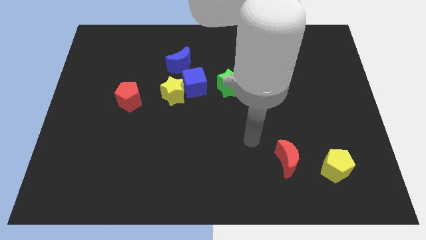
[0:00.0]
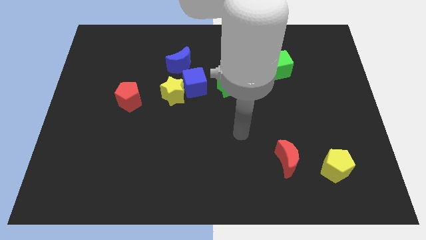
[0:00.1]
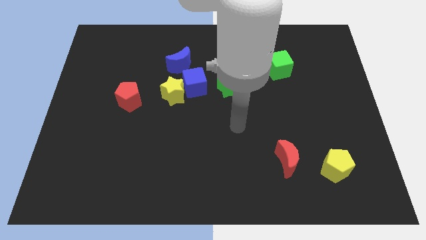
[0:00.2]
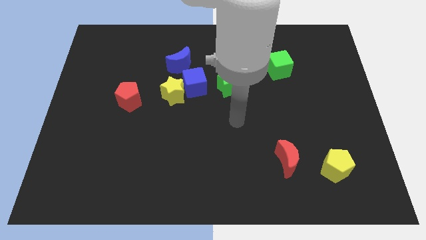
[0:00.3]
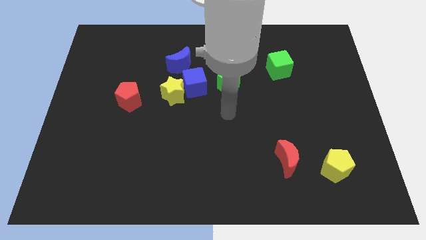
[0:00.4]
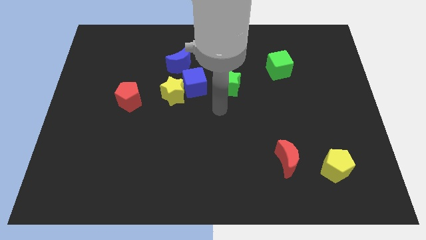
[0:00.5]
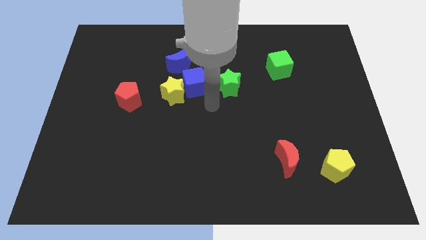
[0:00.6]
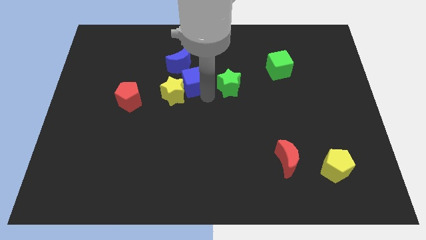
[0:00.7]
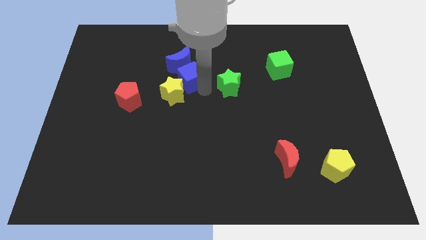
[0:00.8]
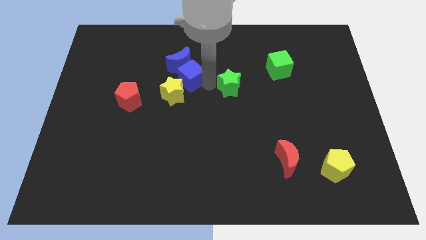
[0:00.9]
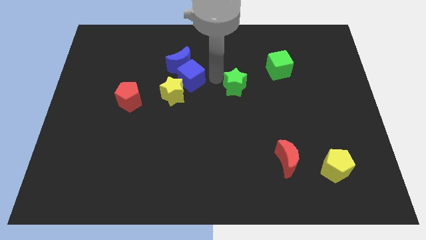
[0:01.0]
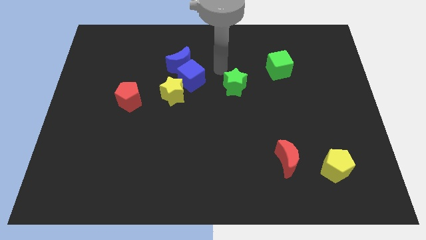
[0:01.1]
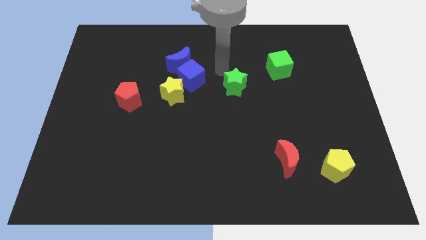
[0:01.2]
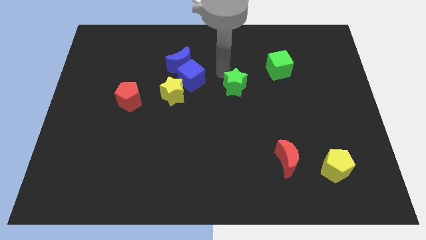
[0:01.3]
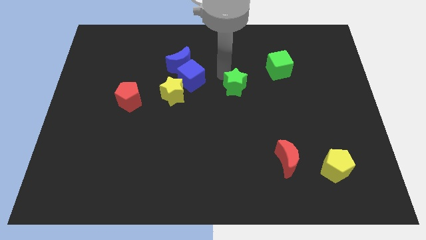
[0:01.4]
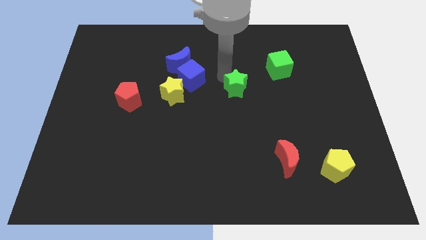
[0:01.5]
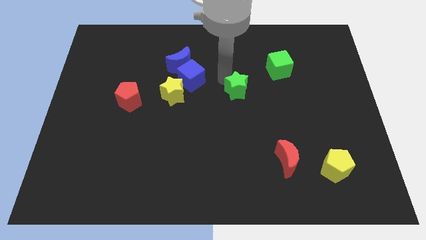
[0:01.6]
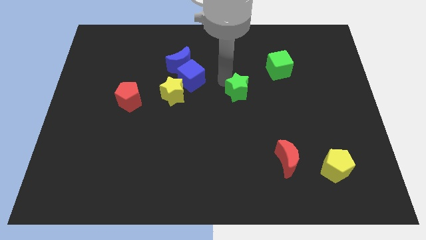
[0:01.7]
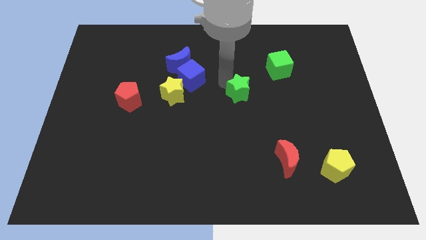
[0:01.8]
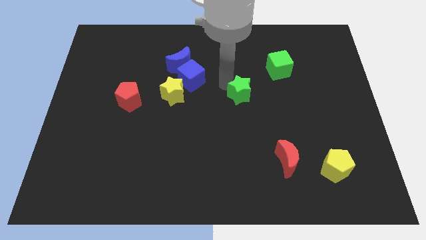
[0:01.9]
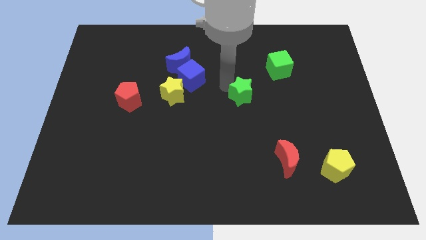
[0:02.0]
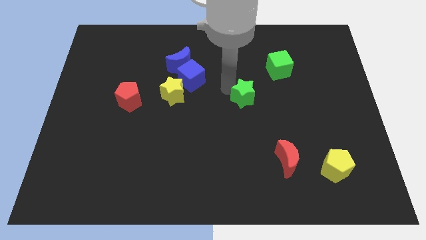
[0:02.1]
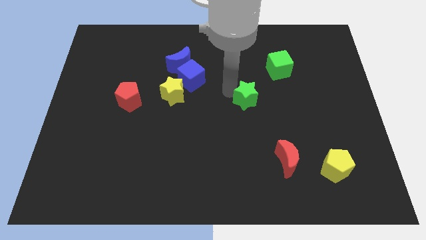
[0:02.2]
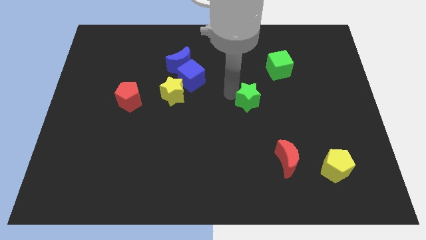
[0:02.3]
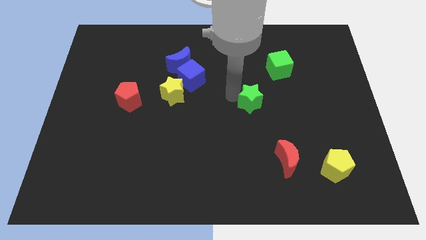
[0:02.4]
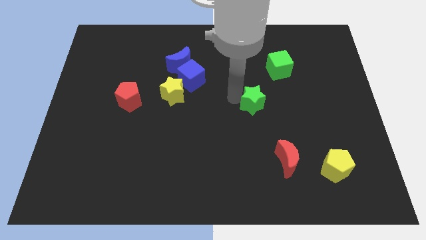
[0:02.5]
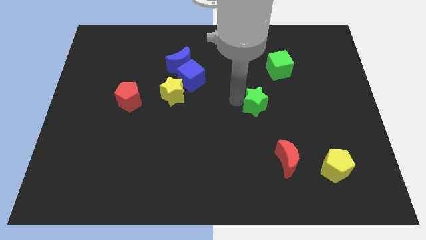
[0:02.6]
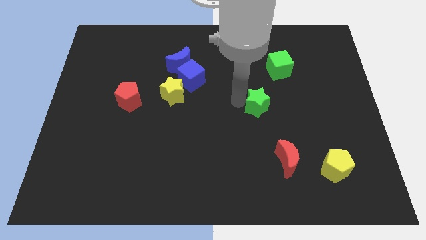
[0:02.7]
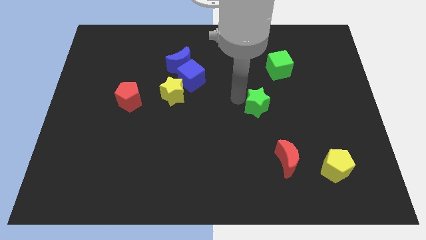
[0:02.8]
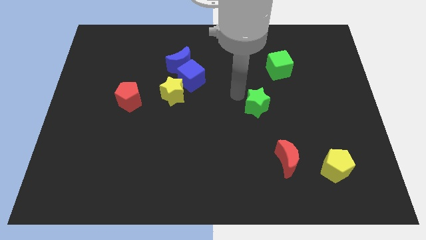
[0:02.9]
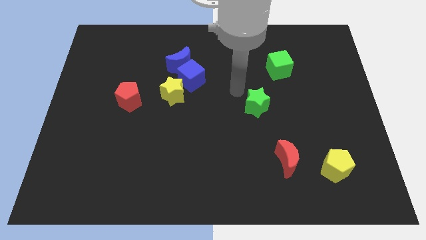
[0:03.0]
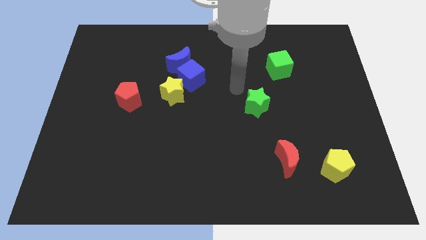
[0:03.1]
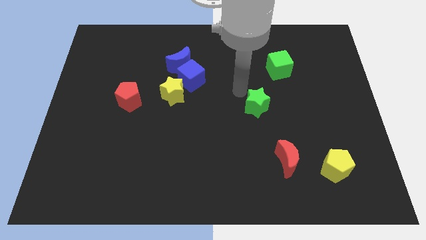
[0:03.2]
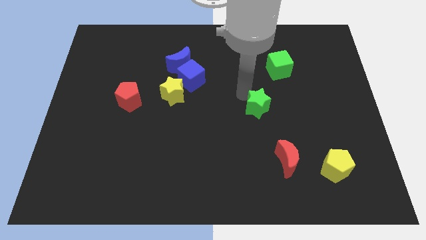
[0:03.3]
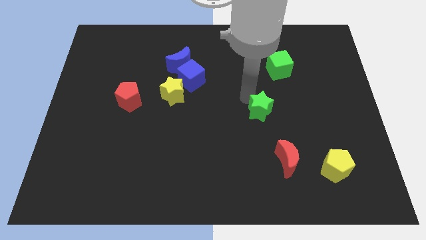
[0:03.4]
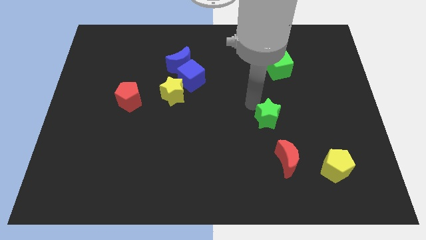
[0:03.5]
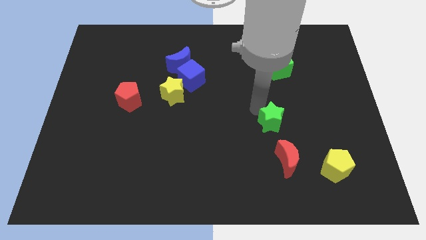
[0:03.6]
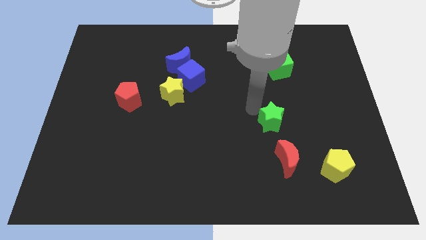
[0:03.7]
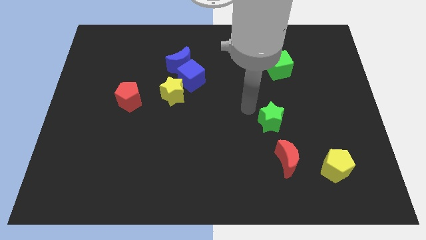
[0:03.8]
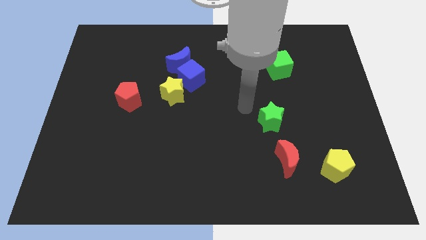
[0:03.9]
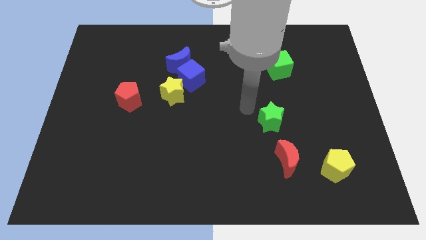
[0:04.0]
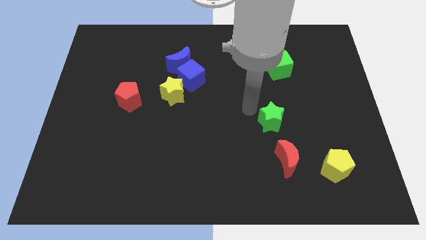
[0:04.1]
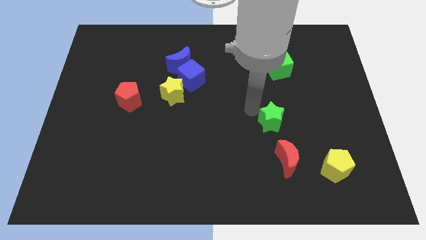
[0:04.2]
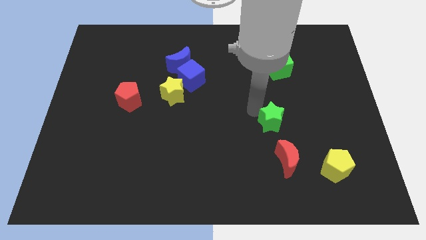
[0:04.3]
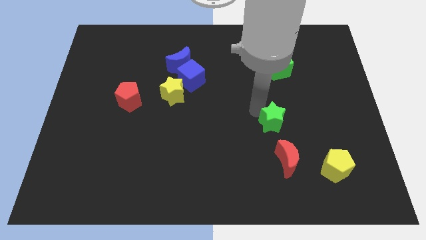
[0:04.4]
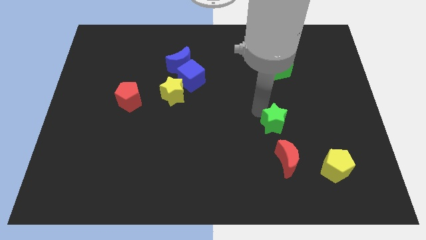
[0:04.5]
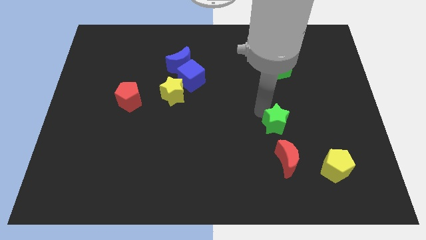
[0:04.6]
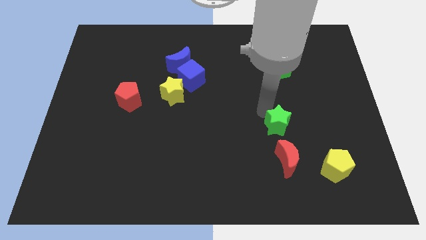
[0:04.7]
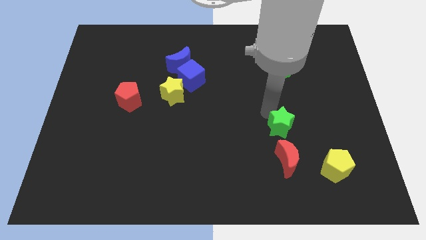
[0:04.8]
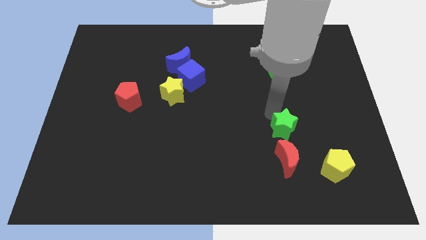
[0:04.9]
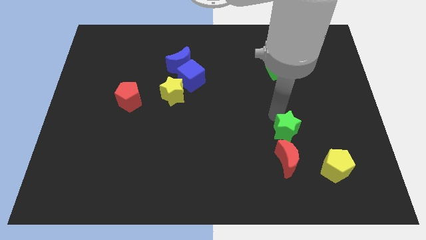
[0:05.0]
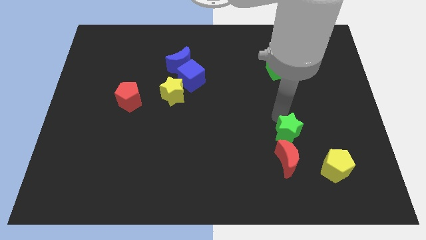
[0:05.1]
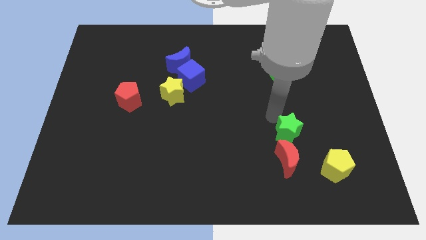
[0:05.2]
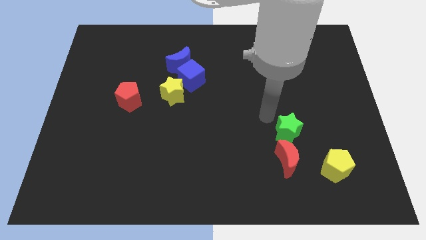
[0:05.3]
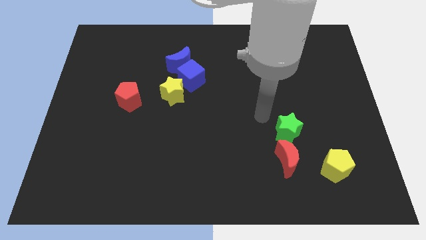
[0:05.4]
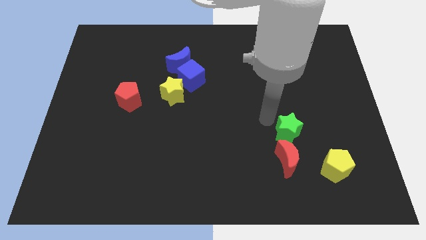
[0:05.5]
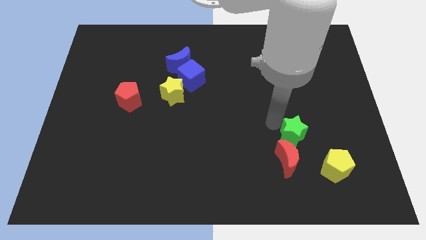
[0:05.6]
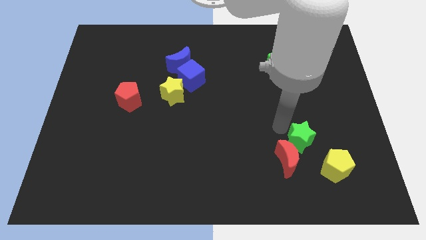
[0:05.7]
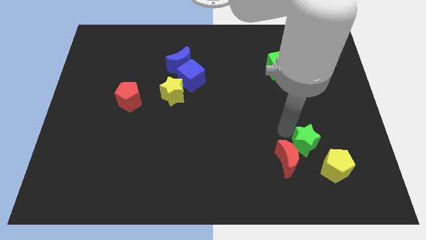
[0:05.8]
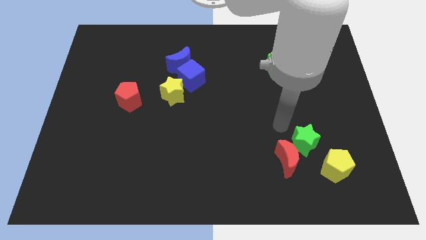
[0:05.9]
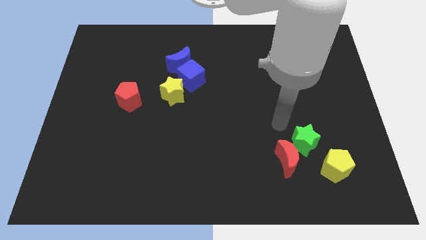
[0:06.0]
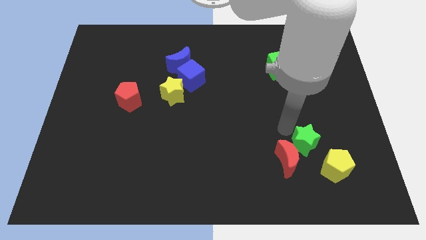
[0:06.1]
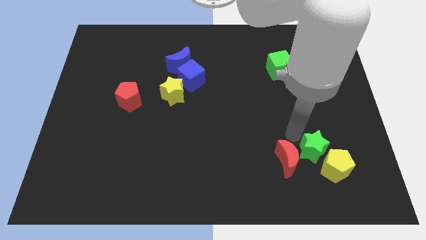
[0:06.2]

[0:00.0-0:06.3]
slide the green star next to the yellow pentagon

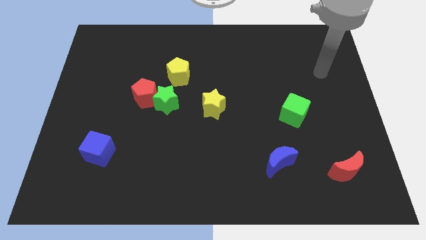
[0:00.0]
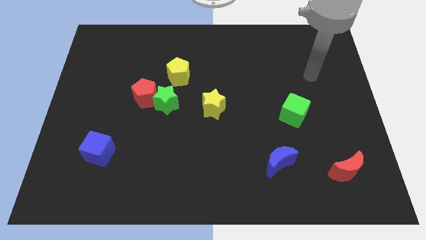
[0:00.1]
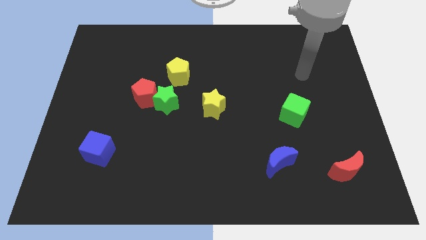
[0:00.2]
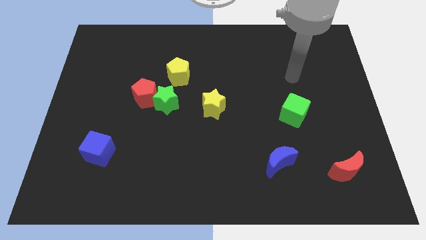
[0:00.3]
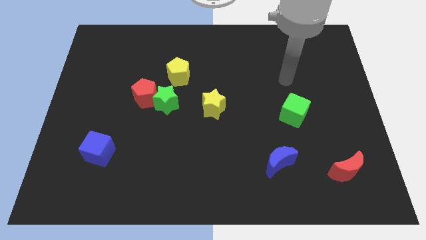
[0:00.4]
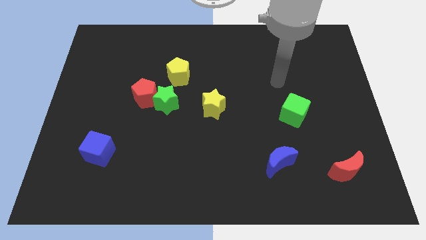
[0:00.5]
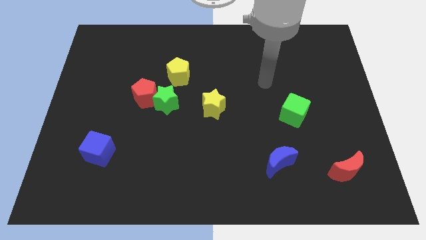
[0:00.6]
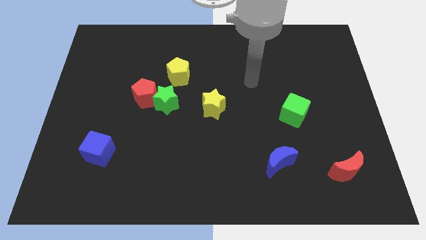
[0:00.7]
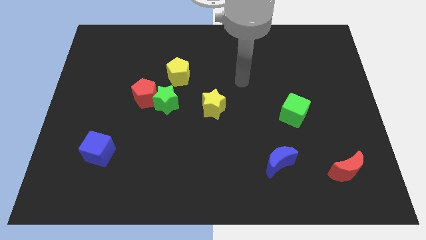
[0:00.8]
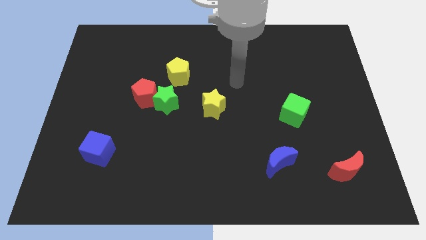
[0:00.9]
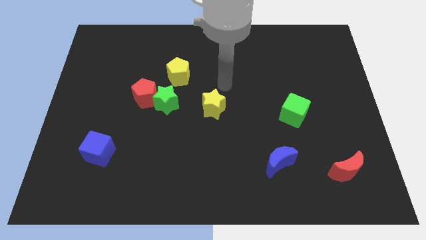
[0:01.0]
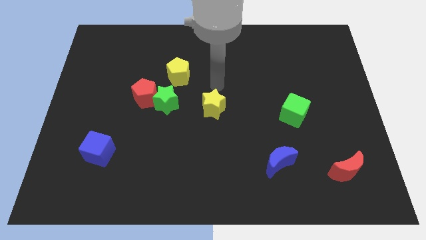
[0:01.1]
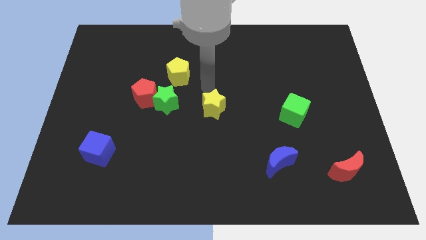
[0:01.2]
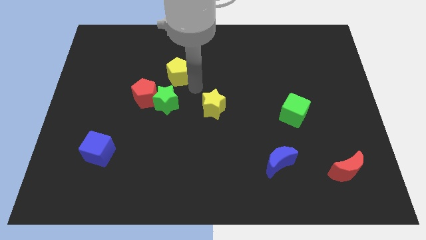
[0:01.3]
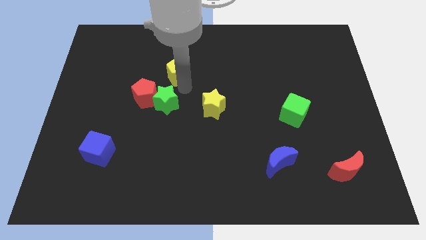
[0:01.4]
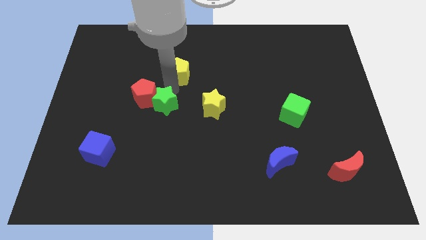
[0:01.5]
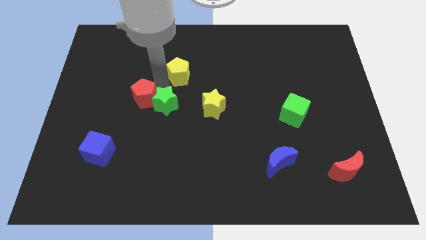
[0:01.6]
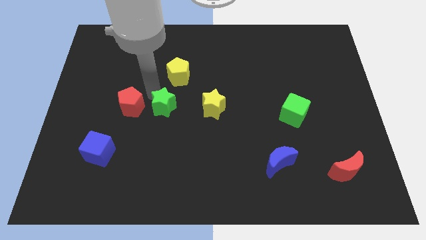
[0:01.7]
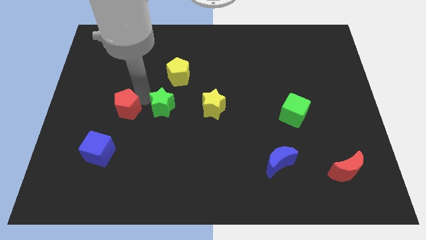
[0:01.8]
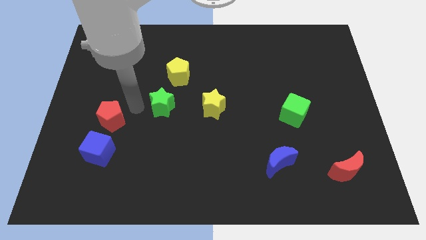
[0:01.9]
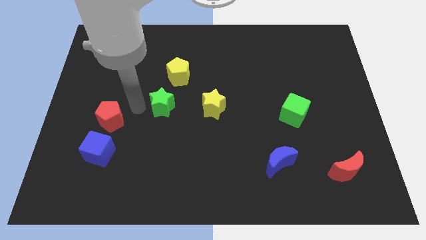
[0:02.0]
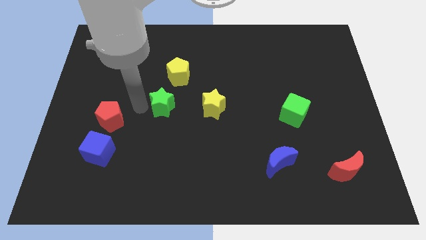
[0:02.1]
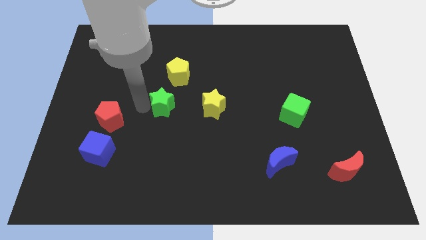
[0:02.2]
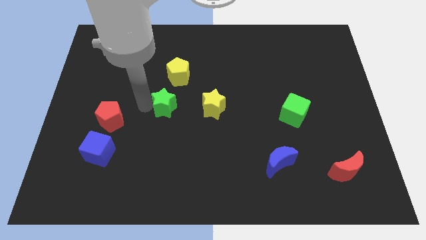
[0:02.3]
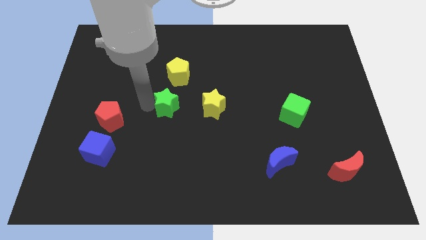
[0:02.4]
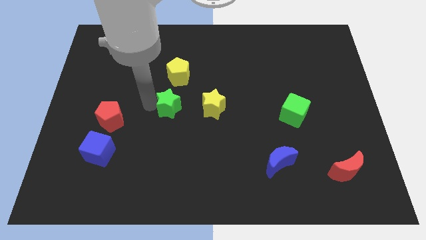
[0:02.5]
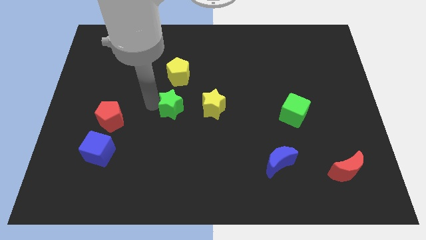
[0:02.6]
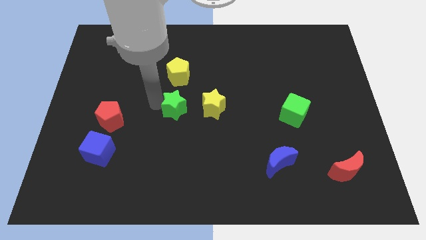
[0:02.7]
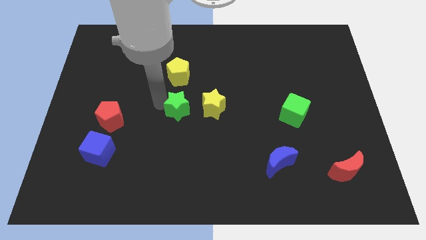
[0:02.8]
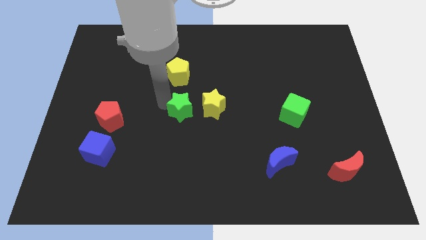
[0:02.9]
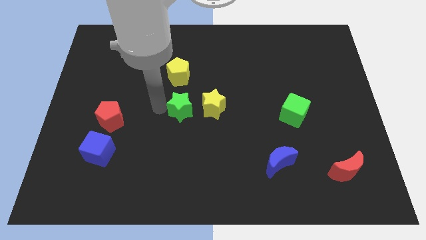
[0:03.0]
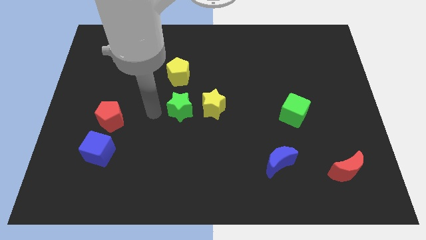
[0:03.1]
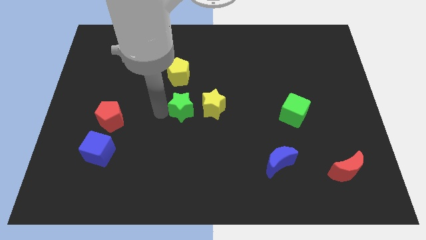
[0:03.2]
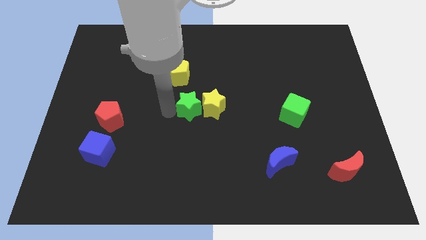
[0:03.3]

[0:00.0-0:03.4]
put the green star to the yellow star
